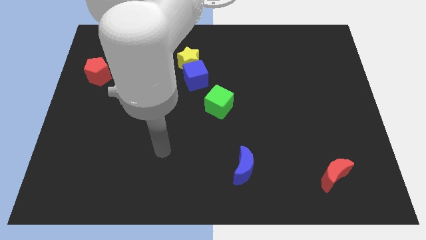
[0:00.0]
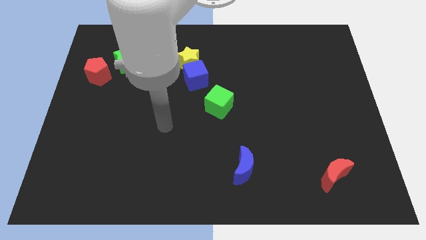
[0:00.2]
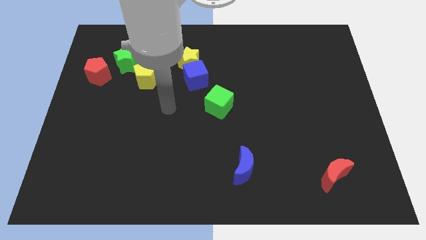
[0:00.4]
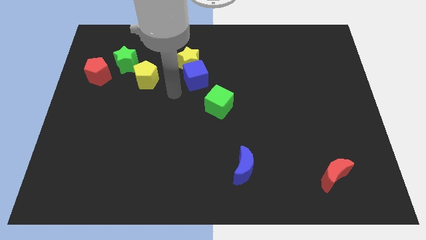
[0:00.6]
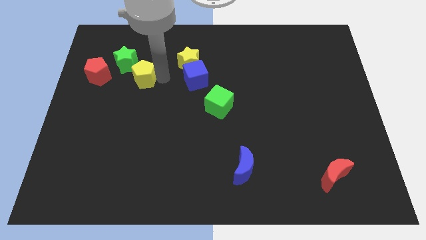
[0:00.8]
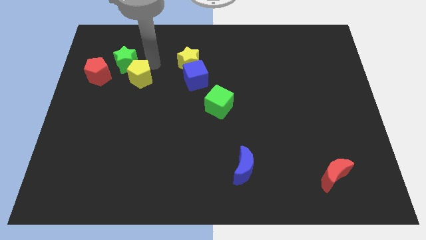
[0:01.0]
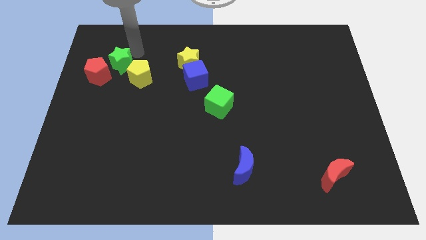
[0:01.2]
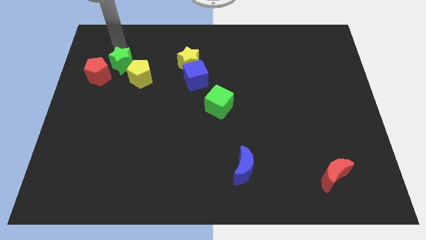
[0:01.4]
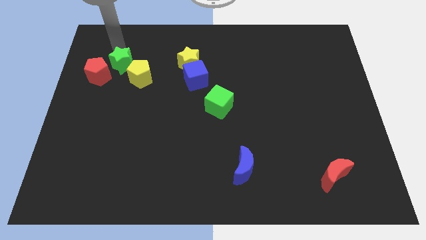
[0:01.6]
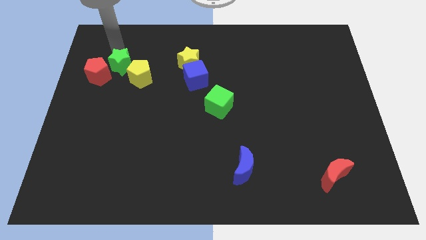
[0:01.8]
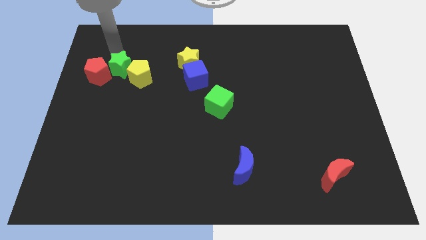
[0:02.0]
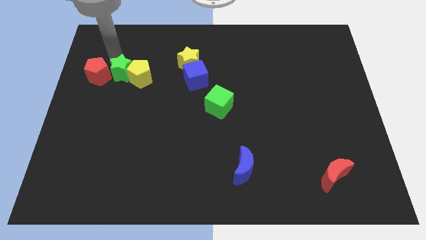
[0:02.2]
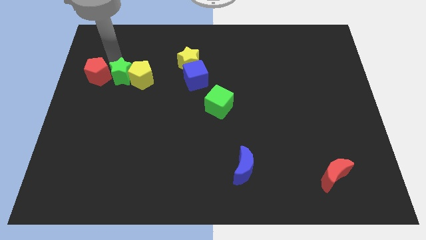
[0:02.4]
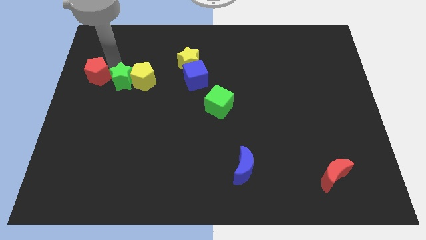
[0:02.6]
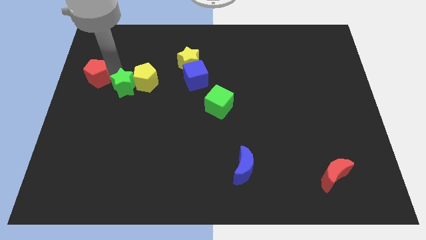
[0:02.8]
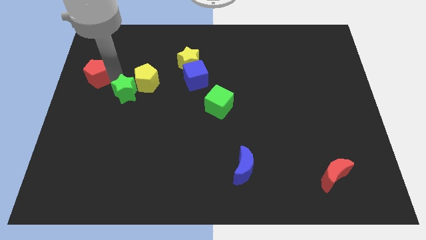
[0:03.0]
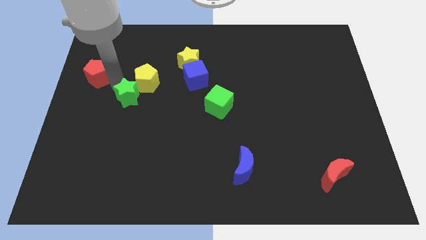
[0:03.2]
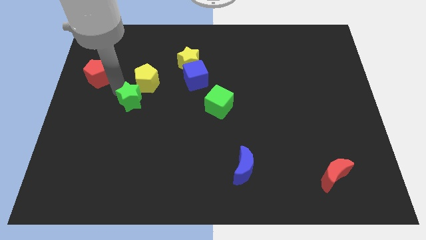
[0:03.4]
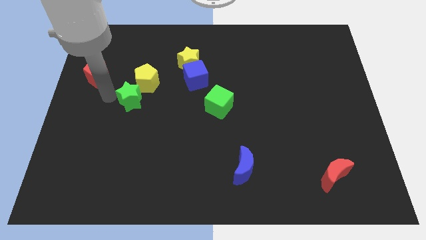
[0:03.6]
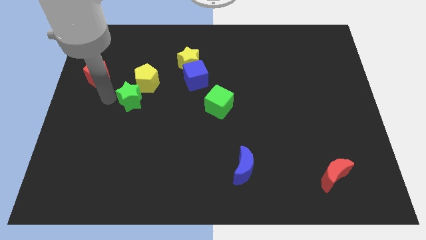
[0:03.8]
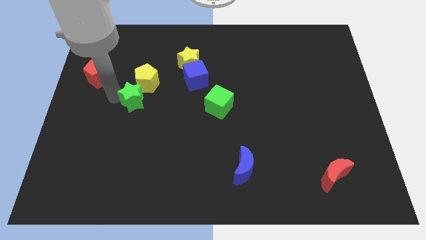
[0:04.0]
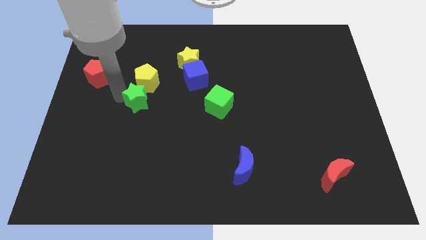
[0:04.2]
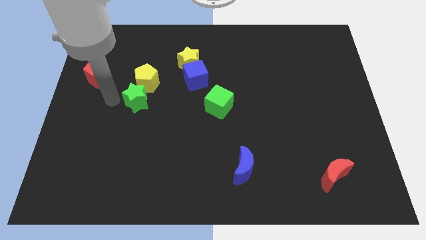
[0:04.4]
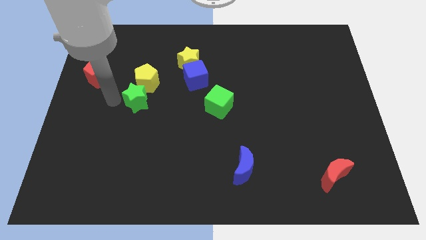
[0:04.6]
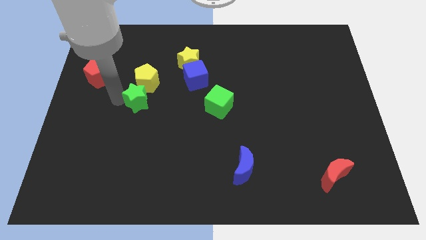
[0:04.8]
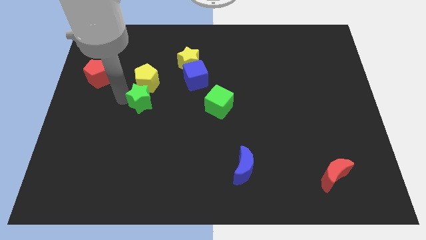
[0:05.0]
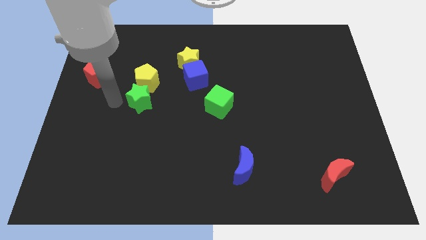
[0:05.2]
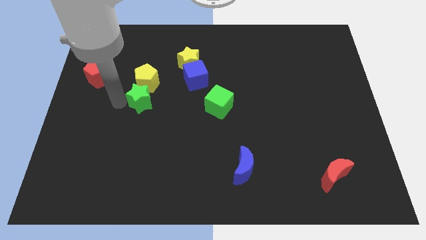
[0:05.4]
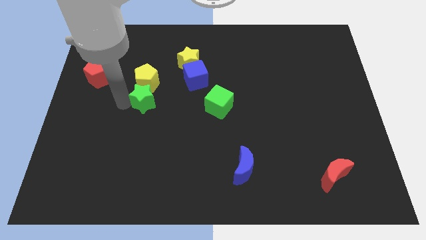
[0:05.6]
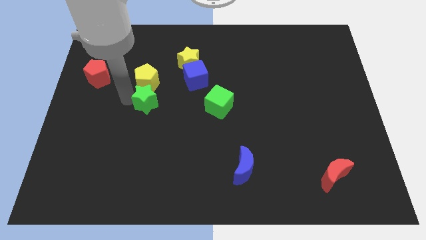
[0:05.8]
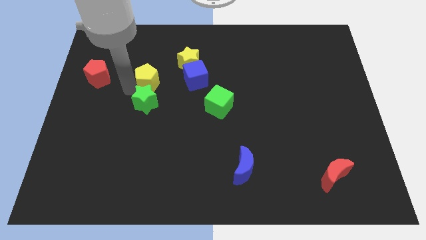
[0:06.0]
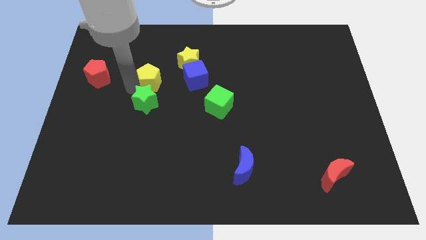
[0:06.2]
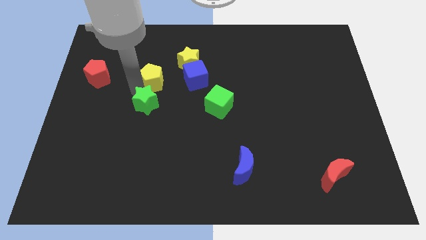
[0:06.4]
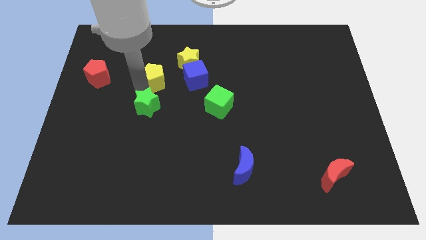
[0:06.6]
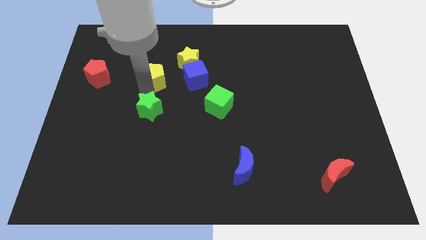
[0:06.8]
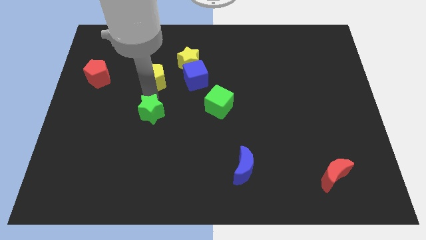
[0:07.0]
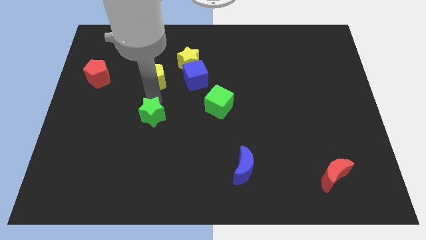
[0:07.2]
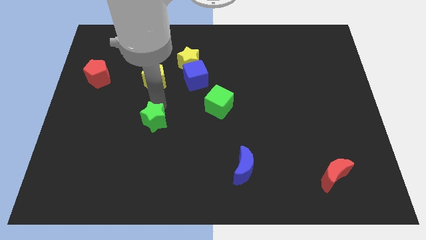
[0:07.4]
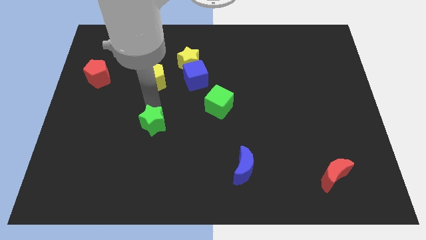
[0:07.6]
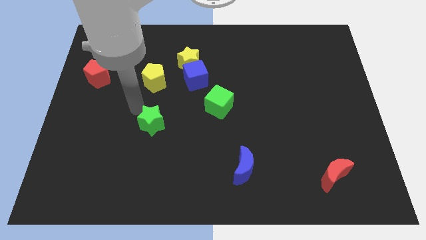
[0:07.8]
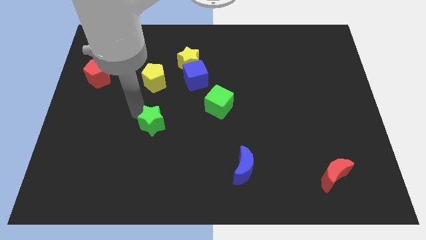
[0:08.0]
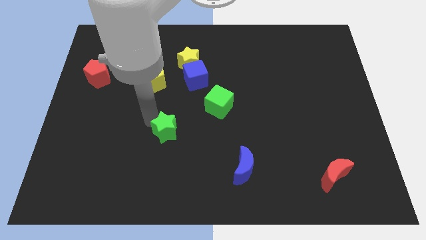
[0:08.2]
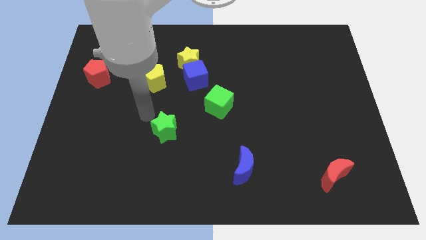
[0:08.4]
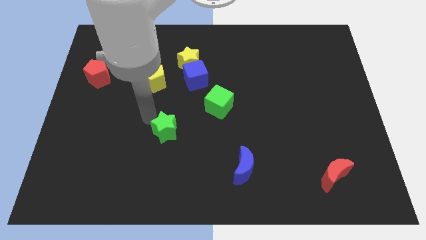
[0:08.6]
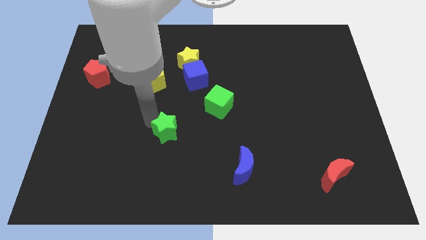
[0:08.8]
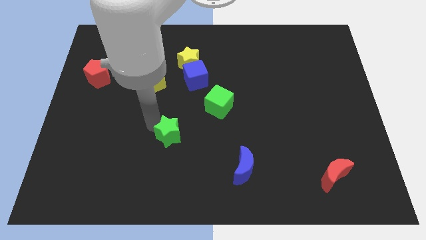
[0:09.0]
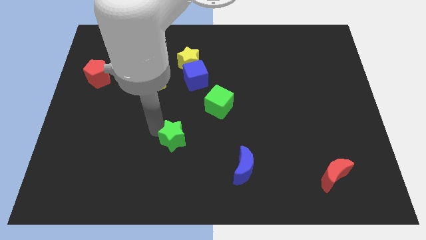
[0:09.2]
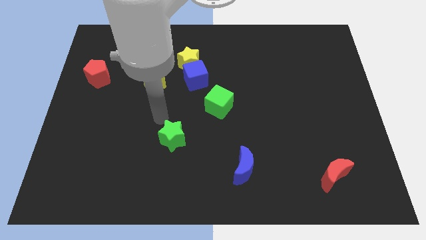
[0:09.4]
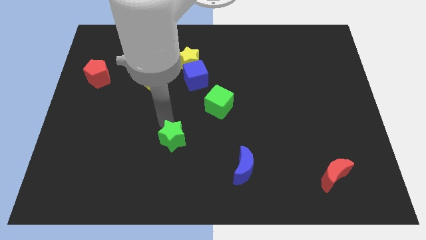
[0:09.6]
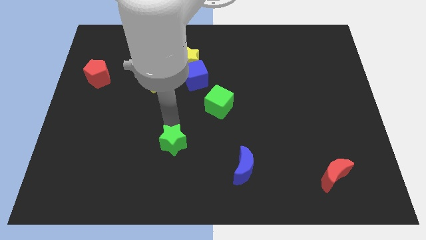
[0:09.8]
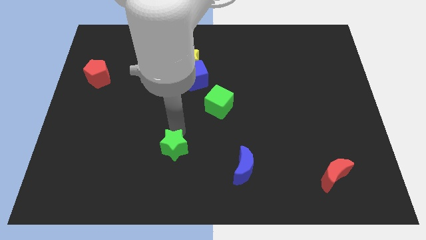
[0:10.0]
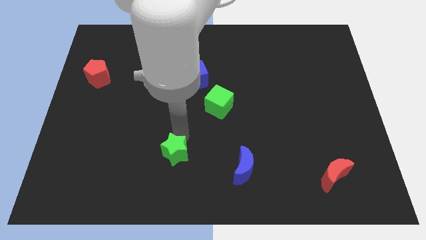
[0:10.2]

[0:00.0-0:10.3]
push the green star just left of the blue moon

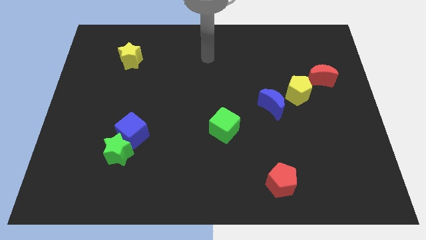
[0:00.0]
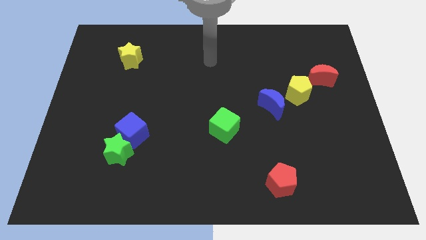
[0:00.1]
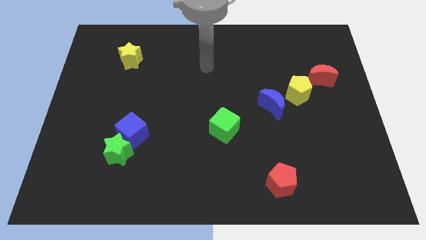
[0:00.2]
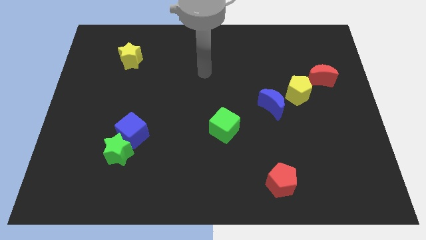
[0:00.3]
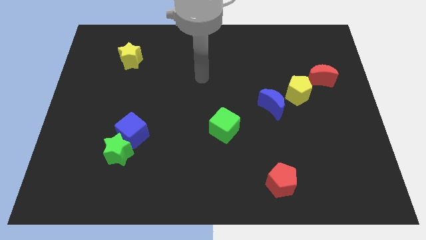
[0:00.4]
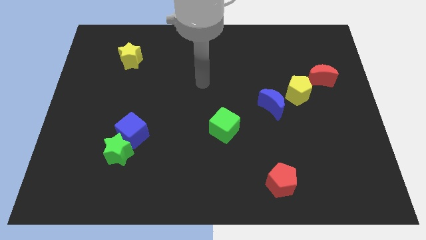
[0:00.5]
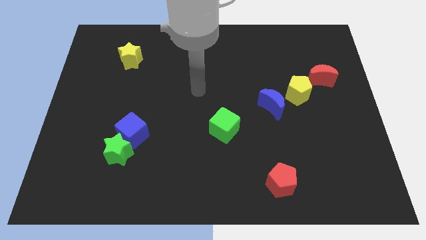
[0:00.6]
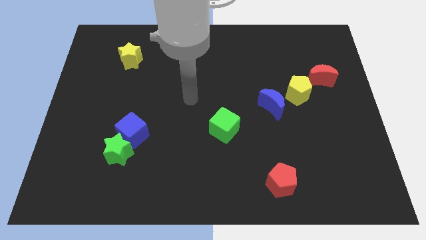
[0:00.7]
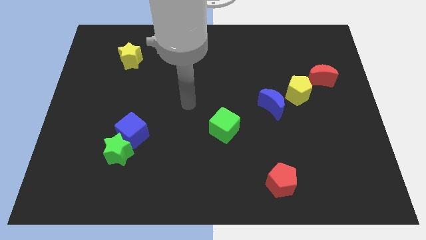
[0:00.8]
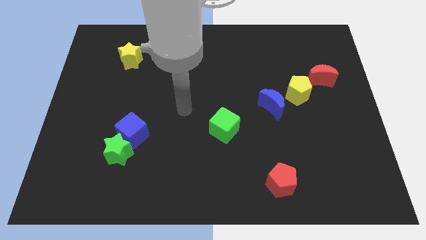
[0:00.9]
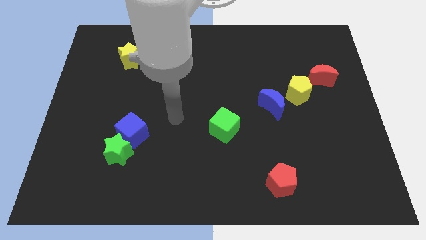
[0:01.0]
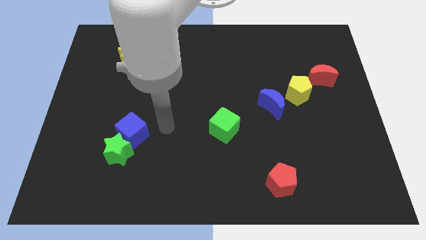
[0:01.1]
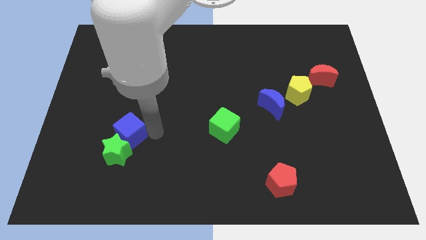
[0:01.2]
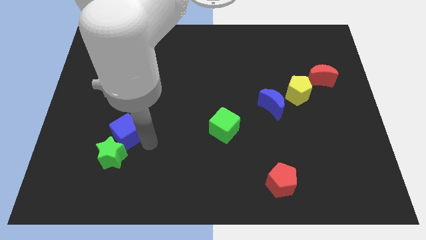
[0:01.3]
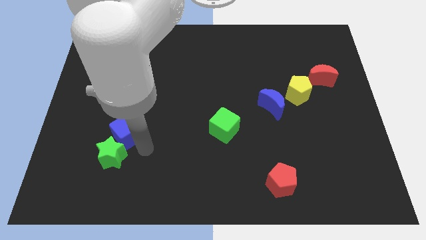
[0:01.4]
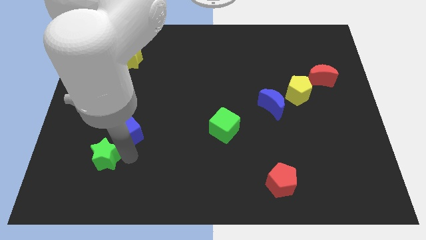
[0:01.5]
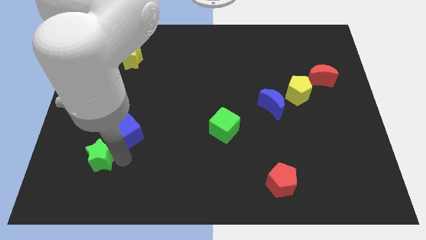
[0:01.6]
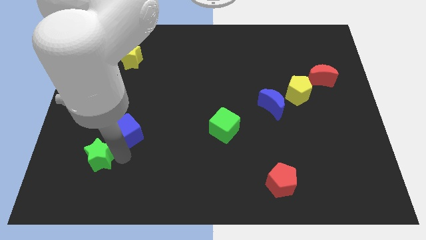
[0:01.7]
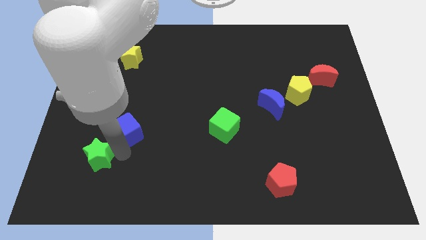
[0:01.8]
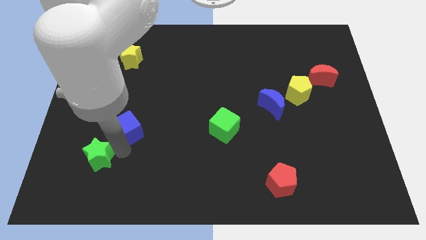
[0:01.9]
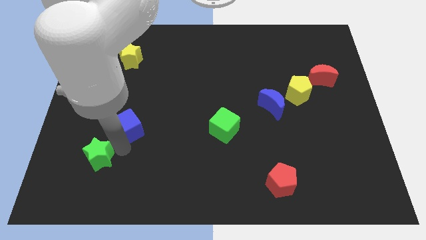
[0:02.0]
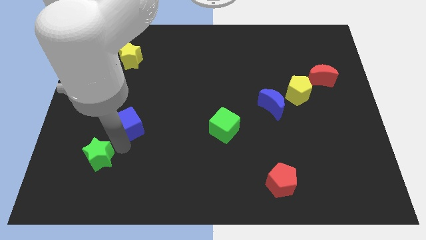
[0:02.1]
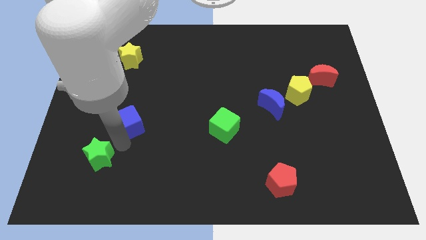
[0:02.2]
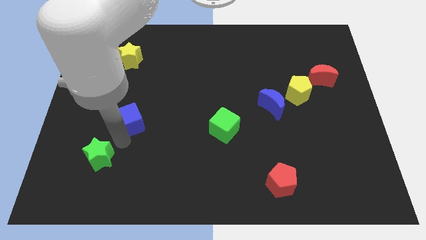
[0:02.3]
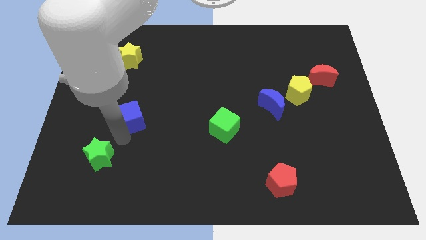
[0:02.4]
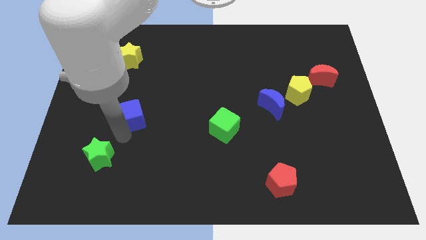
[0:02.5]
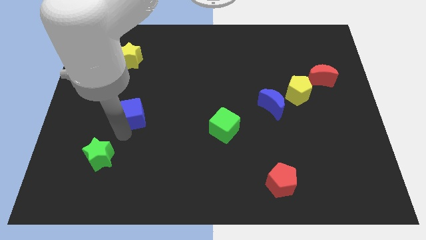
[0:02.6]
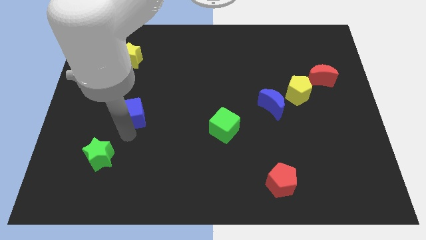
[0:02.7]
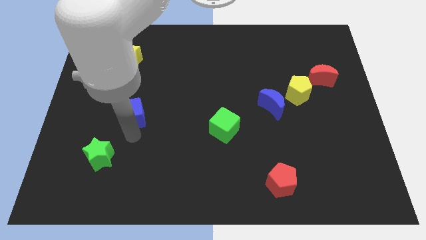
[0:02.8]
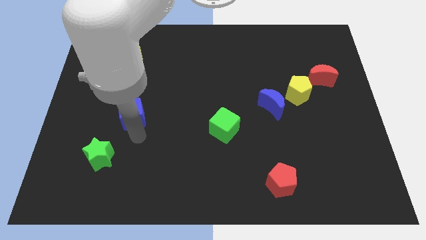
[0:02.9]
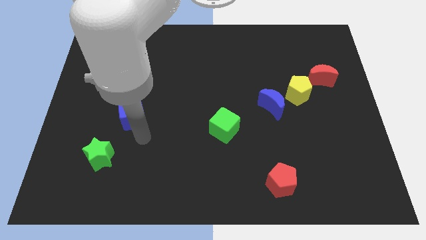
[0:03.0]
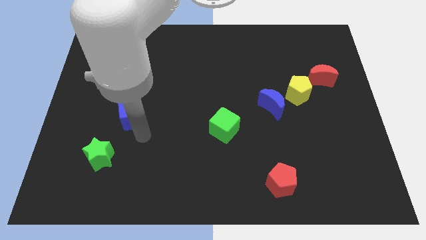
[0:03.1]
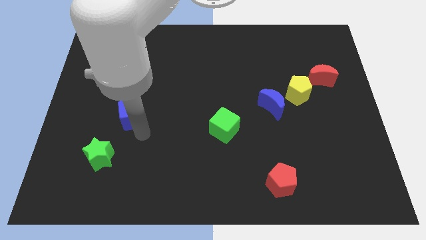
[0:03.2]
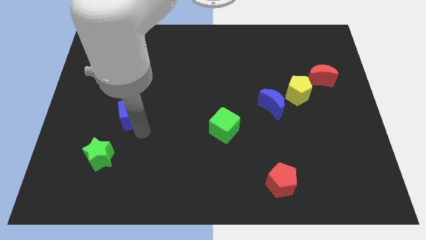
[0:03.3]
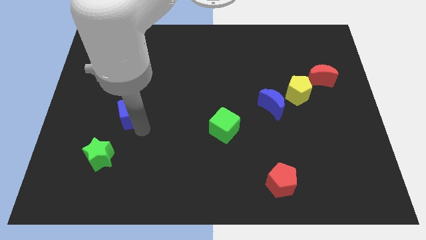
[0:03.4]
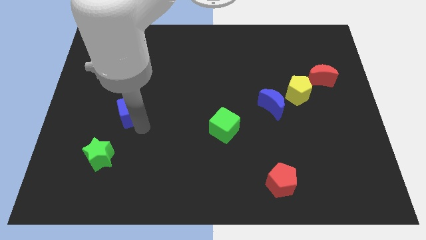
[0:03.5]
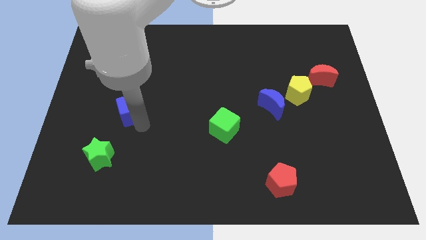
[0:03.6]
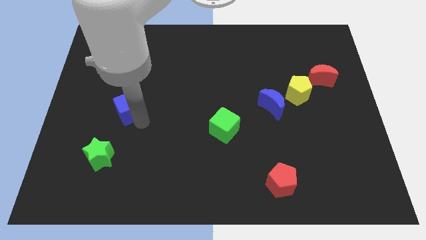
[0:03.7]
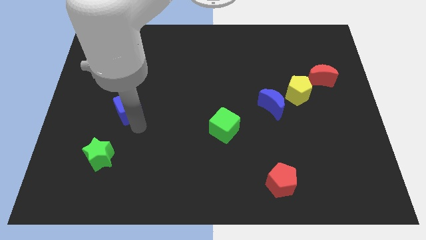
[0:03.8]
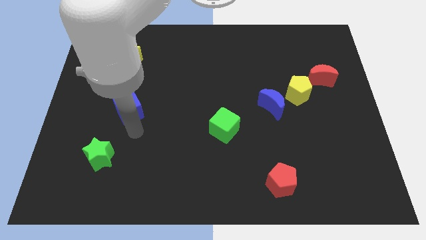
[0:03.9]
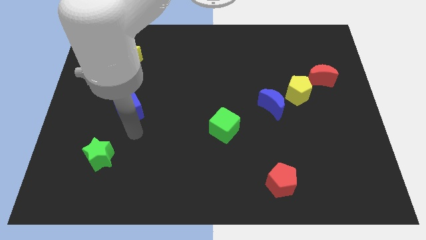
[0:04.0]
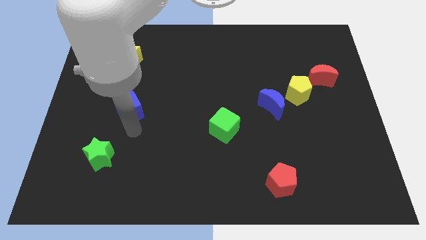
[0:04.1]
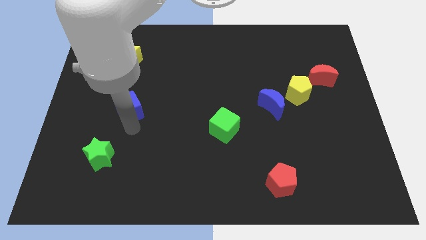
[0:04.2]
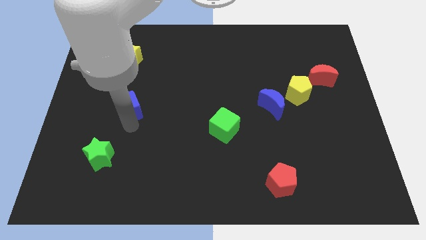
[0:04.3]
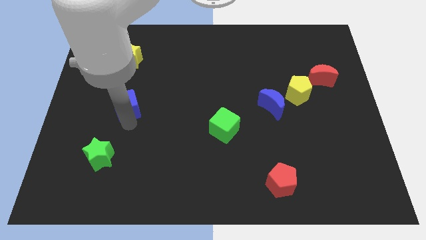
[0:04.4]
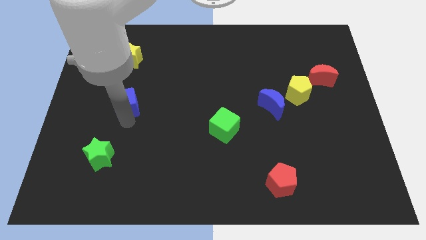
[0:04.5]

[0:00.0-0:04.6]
put the blue cube to the bottom of the yellow star
